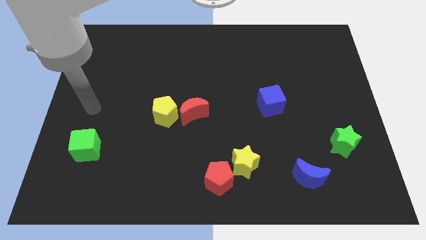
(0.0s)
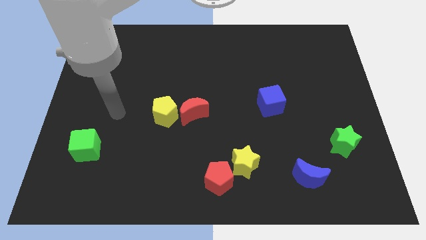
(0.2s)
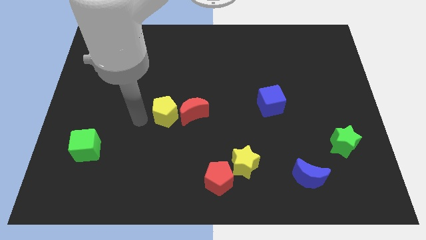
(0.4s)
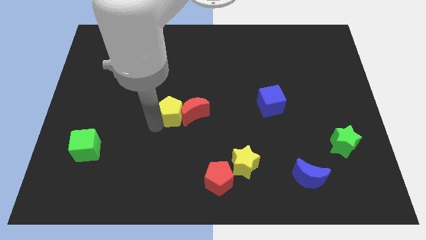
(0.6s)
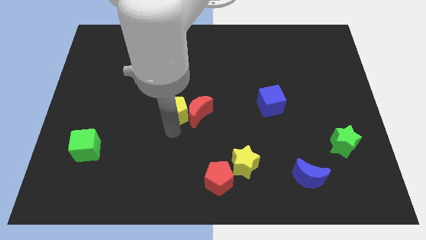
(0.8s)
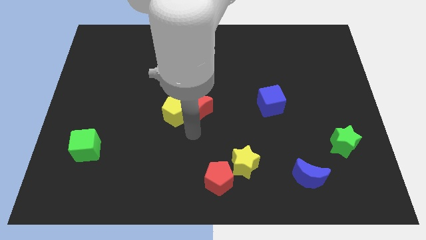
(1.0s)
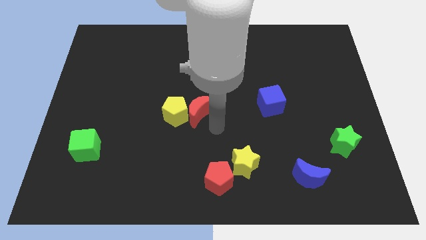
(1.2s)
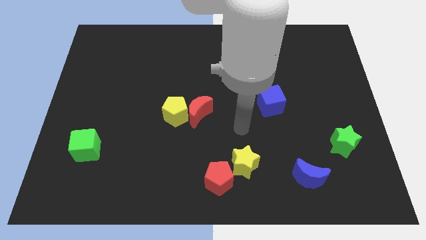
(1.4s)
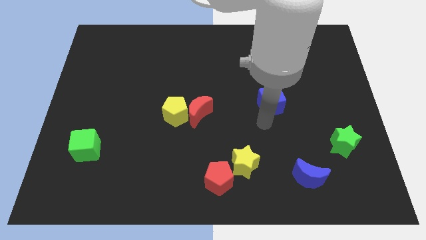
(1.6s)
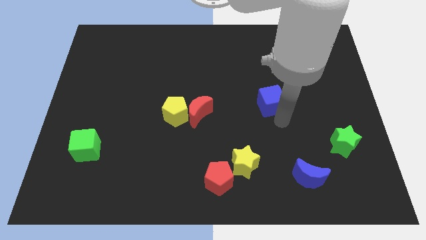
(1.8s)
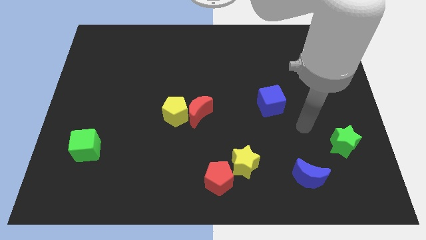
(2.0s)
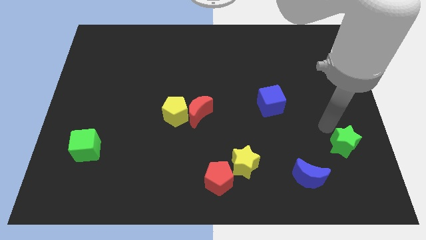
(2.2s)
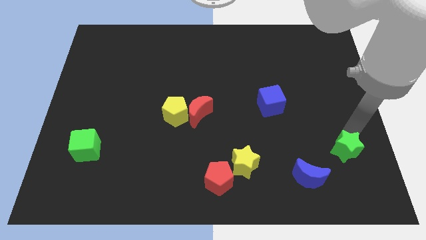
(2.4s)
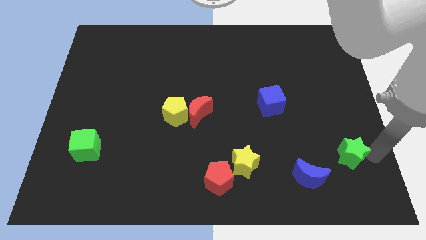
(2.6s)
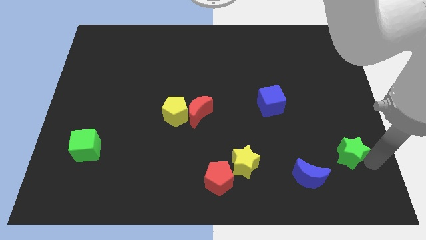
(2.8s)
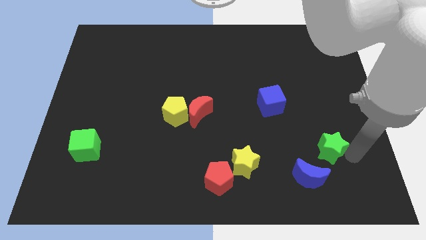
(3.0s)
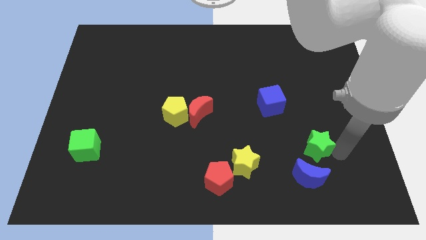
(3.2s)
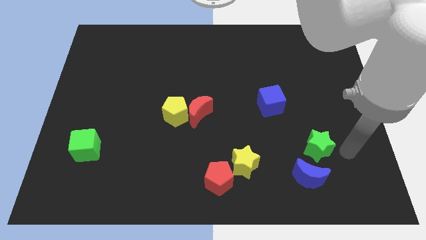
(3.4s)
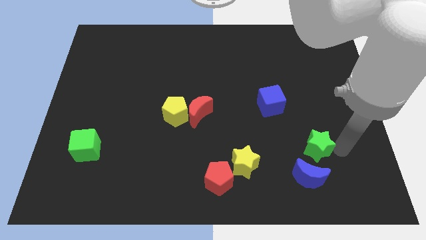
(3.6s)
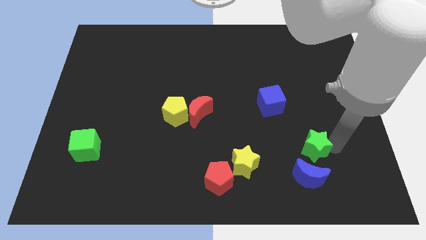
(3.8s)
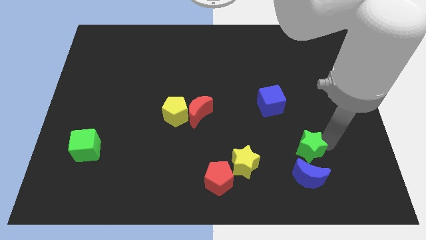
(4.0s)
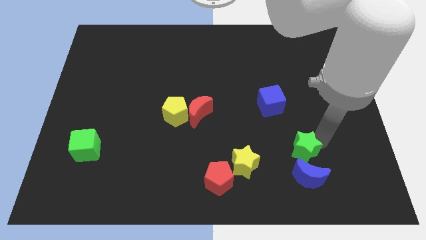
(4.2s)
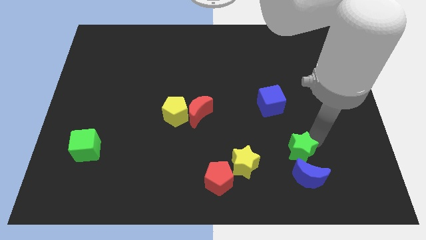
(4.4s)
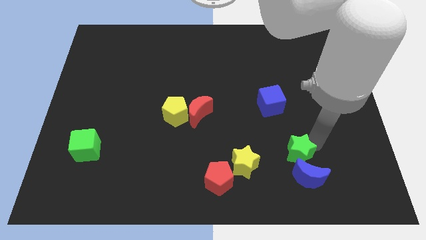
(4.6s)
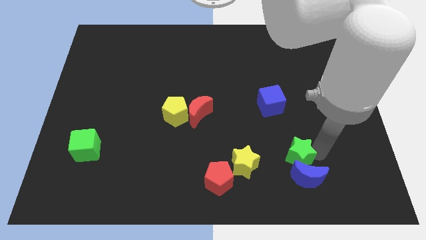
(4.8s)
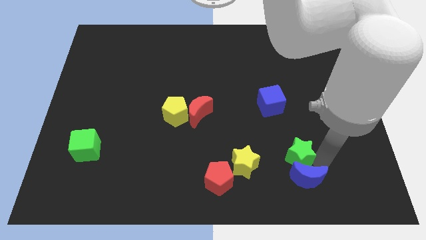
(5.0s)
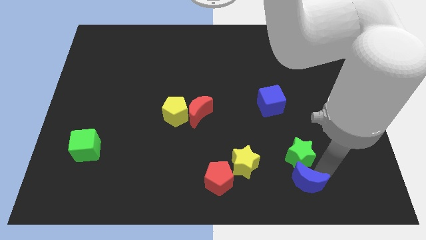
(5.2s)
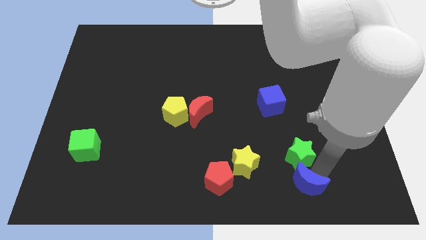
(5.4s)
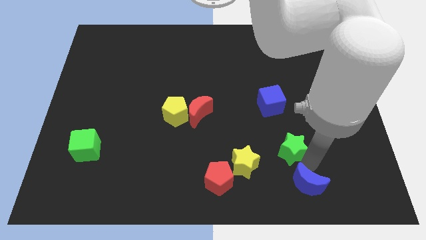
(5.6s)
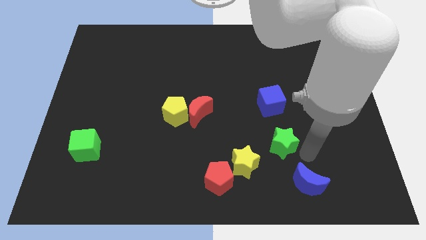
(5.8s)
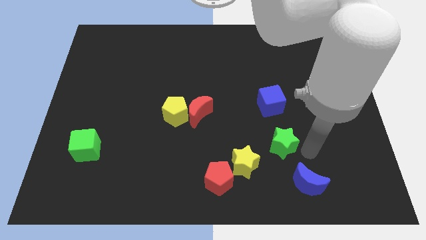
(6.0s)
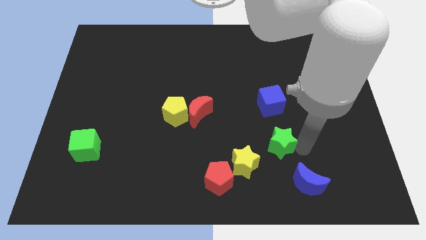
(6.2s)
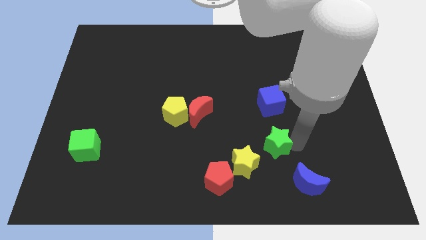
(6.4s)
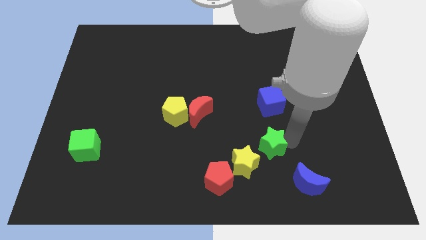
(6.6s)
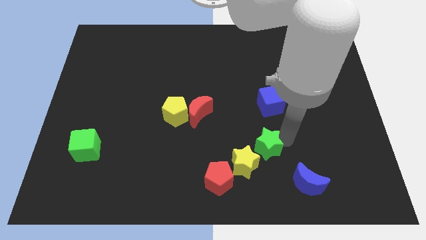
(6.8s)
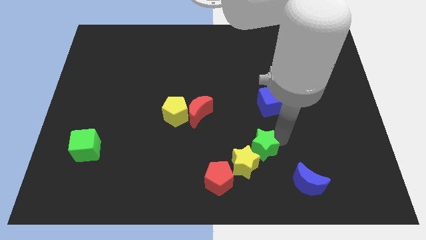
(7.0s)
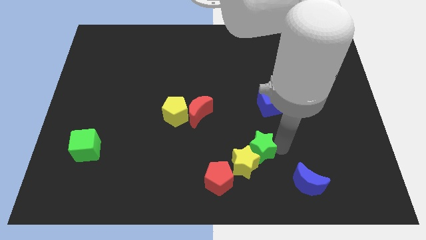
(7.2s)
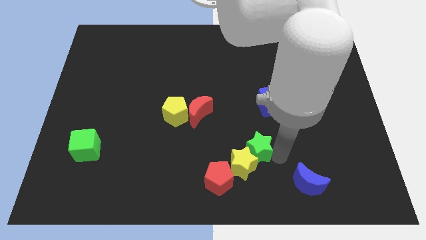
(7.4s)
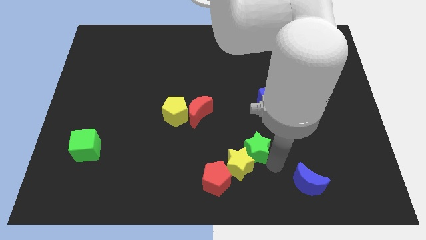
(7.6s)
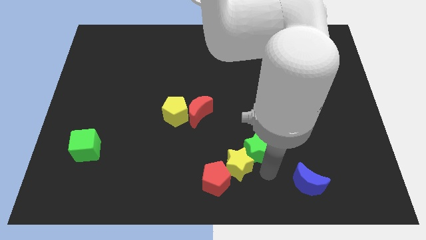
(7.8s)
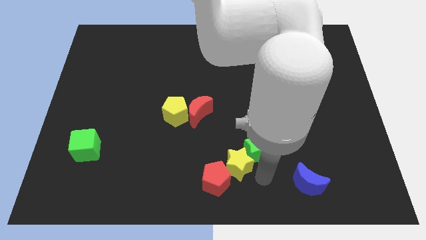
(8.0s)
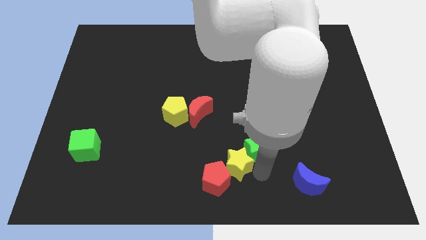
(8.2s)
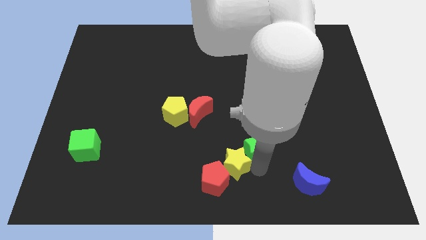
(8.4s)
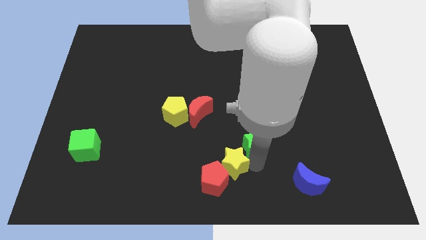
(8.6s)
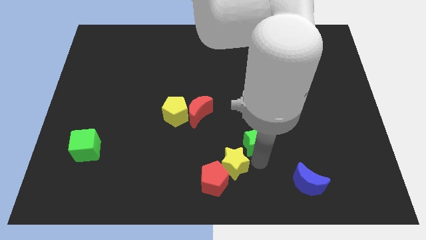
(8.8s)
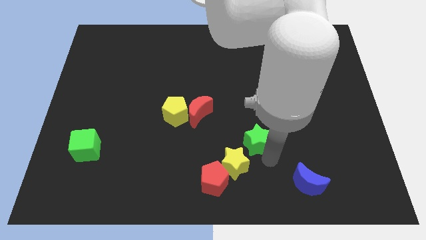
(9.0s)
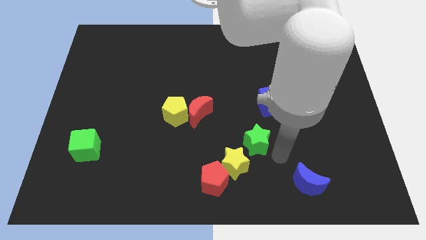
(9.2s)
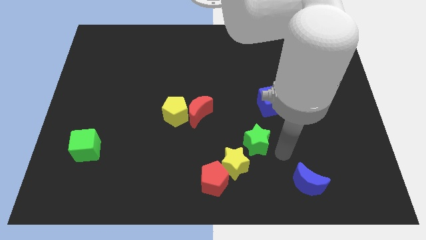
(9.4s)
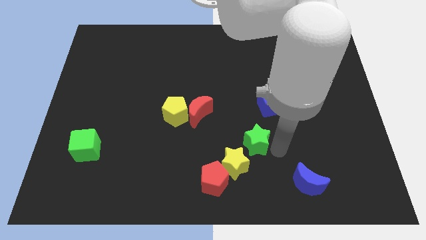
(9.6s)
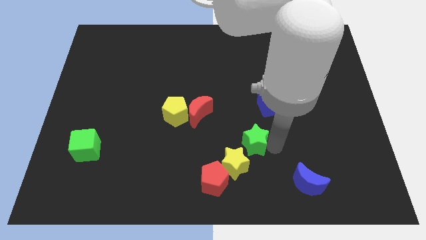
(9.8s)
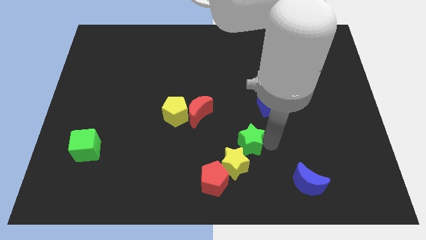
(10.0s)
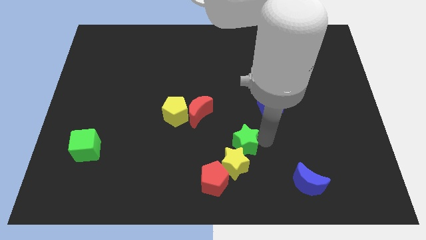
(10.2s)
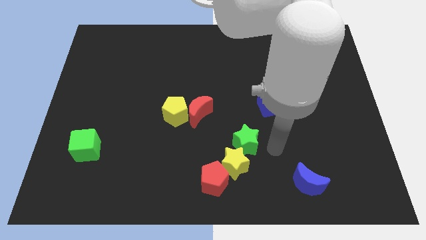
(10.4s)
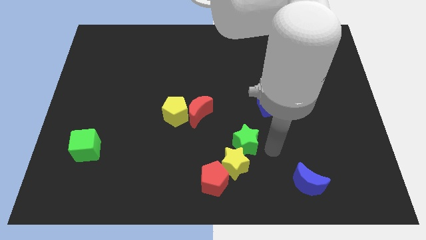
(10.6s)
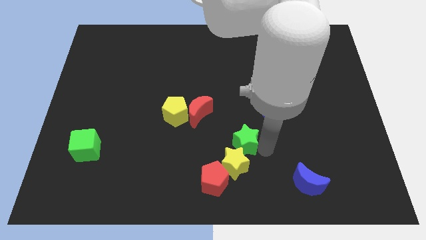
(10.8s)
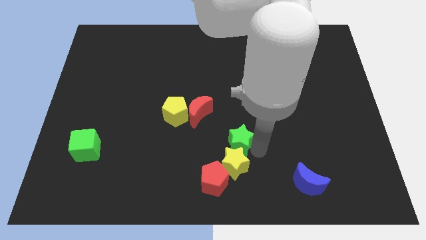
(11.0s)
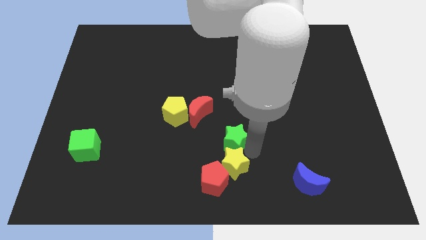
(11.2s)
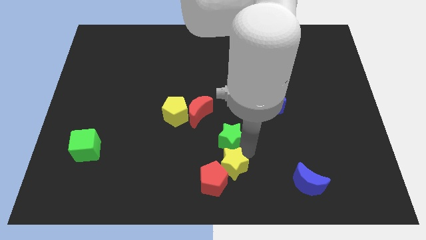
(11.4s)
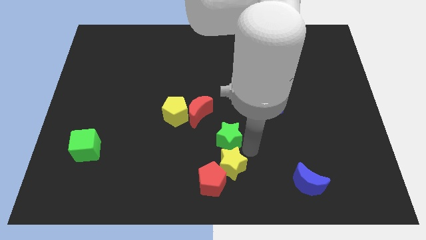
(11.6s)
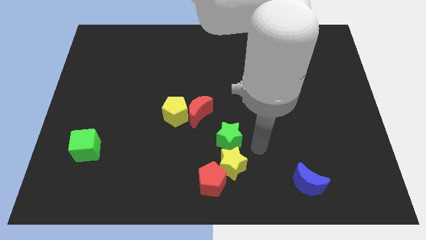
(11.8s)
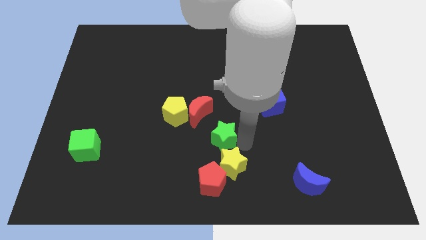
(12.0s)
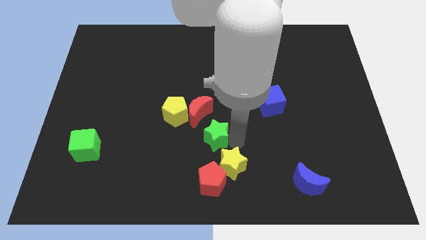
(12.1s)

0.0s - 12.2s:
put the green star to the bottom right of the yellow pentagon
